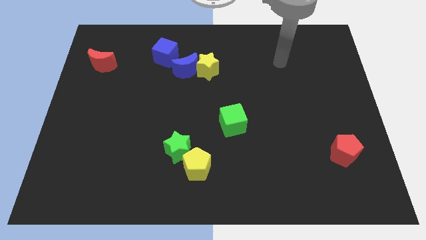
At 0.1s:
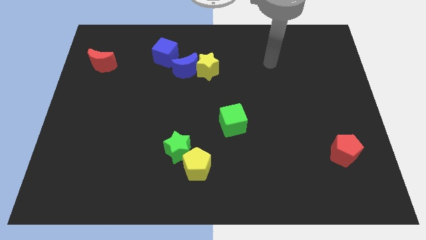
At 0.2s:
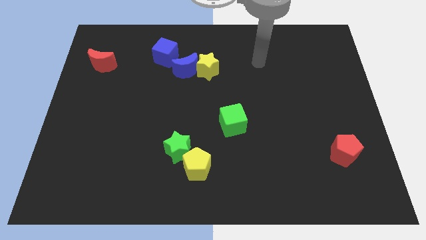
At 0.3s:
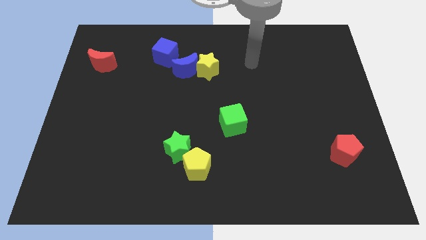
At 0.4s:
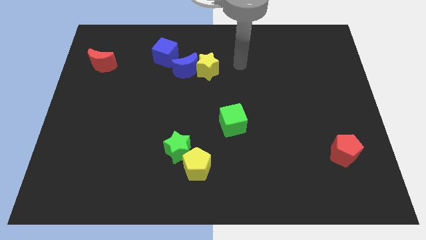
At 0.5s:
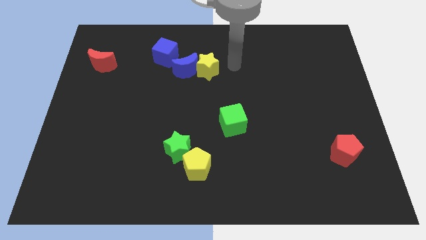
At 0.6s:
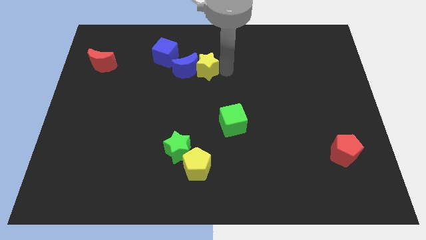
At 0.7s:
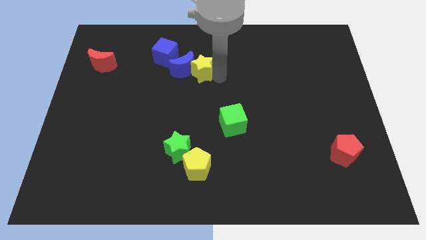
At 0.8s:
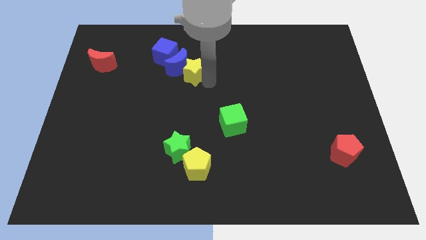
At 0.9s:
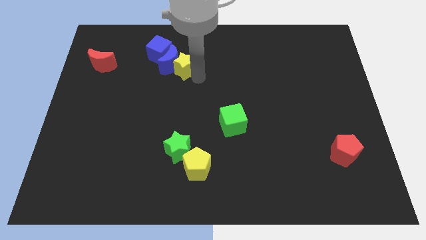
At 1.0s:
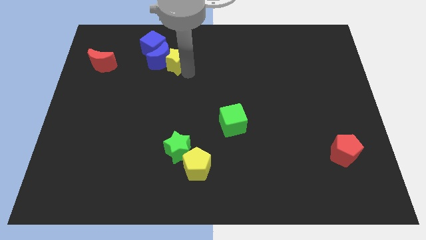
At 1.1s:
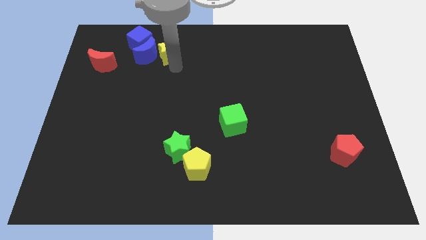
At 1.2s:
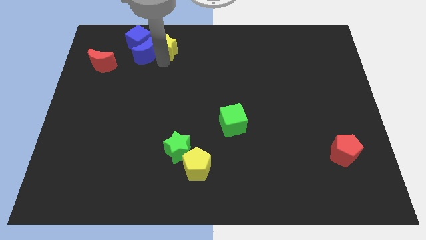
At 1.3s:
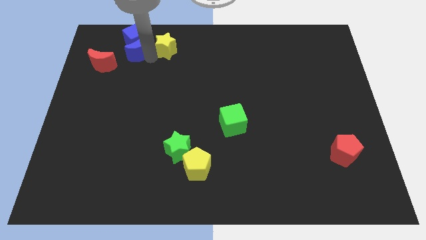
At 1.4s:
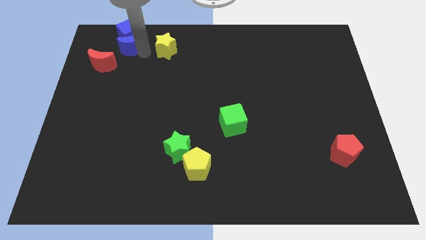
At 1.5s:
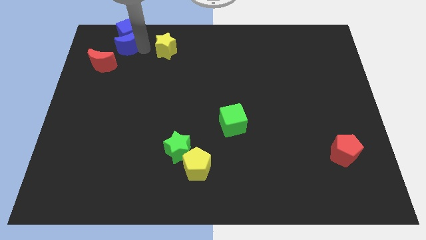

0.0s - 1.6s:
move the yellow star away from the blue moon

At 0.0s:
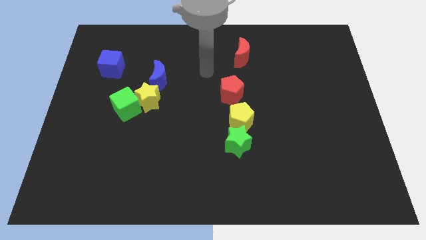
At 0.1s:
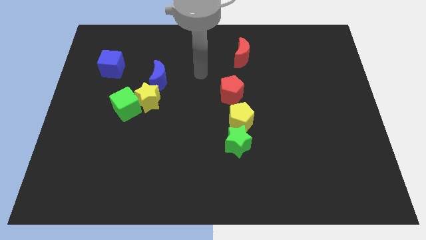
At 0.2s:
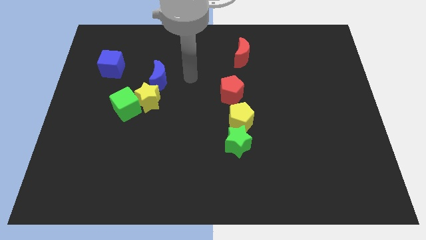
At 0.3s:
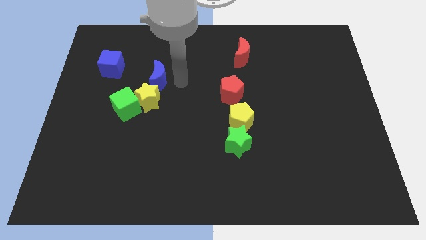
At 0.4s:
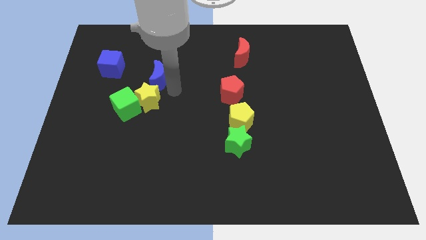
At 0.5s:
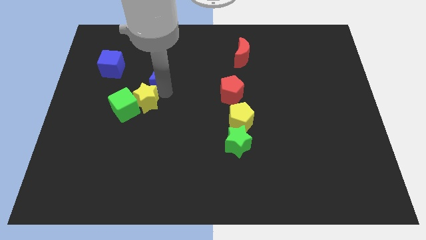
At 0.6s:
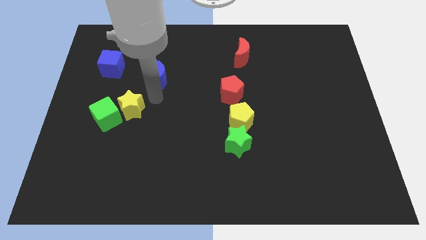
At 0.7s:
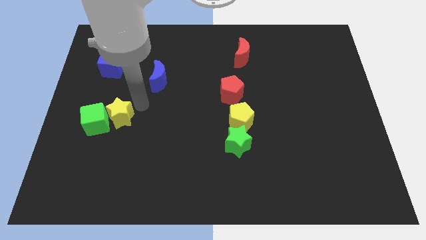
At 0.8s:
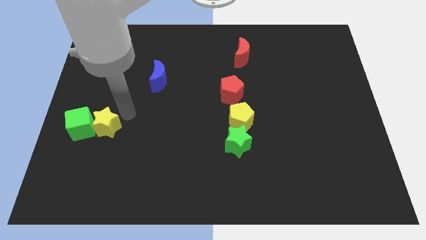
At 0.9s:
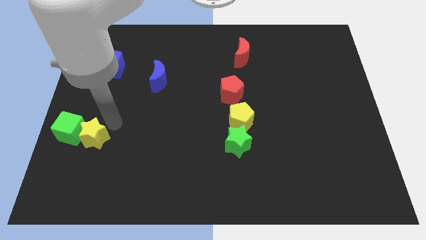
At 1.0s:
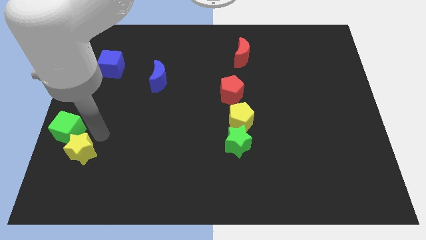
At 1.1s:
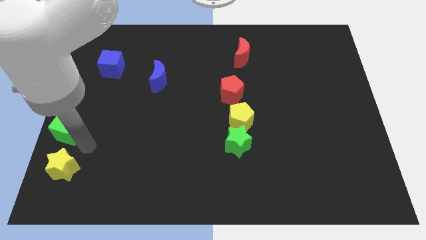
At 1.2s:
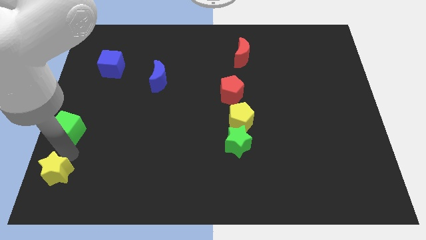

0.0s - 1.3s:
pull the green cube apart from the yellow star

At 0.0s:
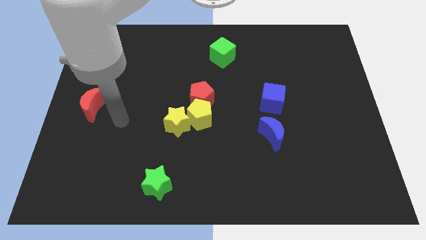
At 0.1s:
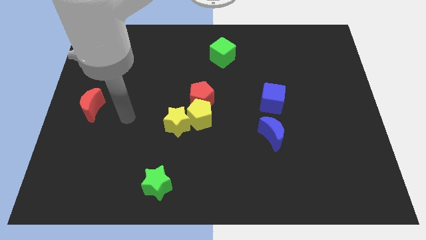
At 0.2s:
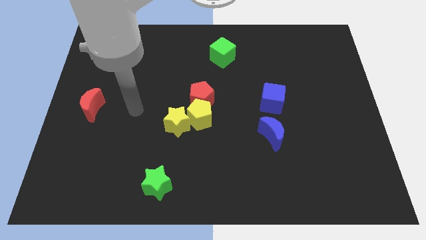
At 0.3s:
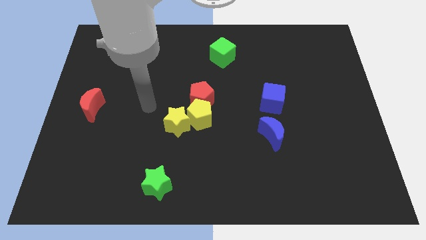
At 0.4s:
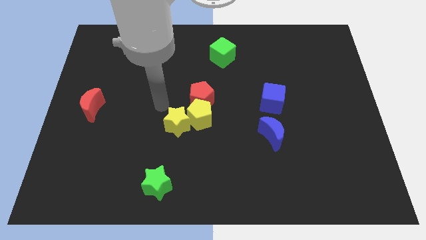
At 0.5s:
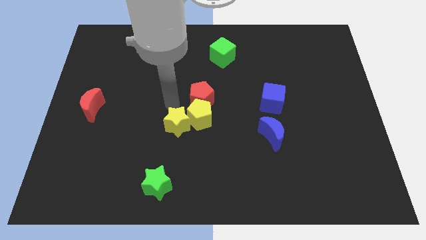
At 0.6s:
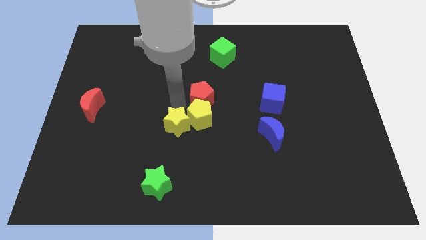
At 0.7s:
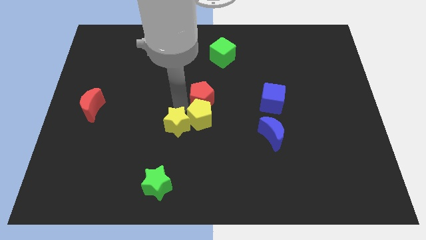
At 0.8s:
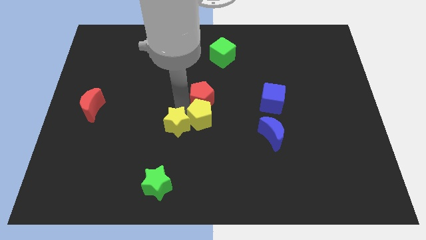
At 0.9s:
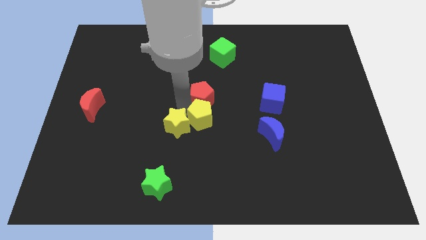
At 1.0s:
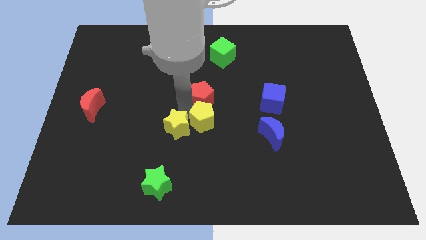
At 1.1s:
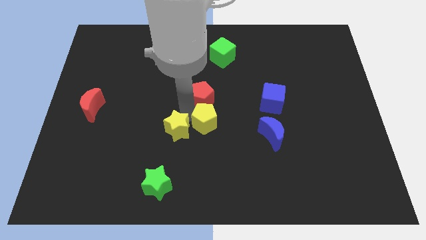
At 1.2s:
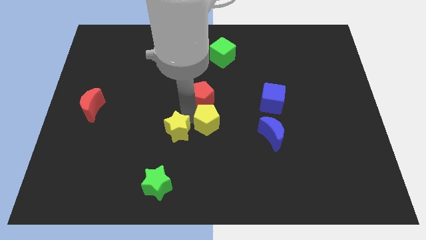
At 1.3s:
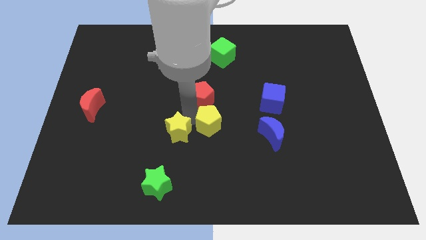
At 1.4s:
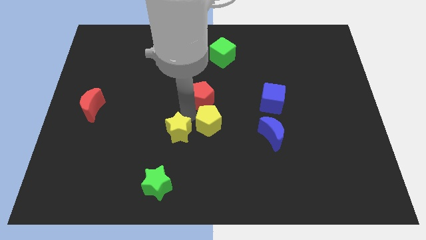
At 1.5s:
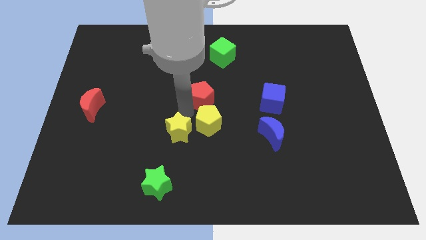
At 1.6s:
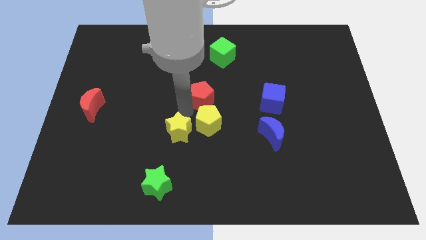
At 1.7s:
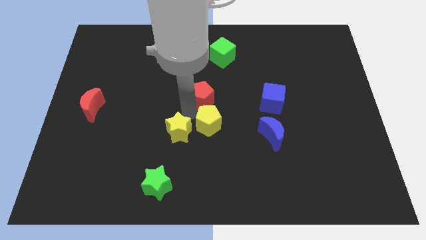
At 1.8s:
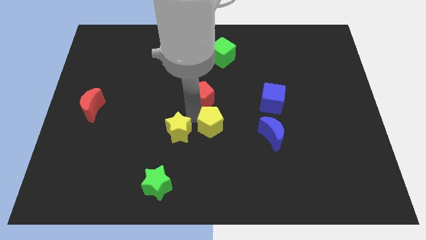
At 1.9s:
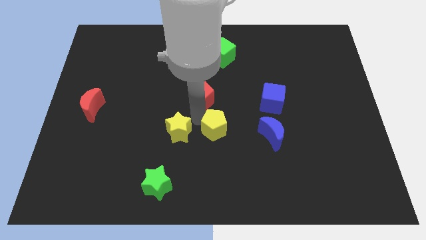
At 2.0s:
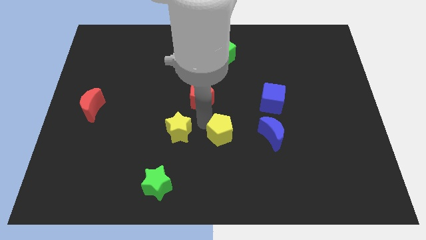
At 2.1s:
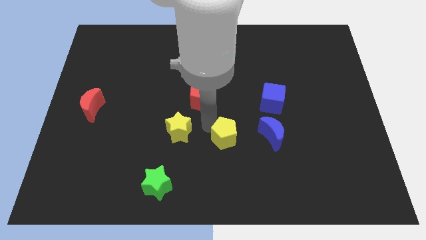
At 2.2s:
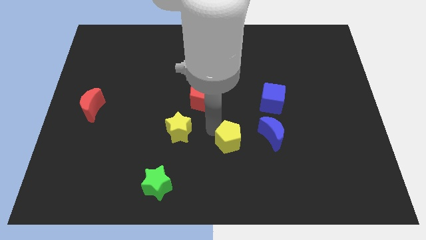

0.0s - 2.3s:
pull the yellow pentagon apart from the yellow star and red pentagon

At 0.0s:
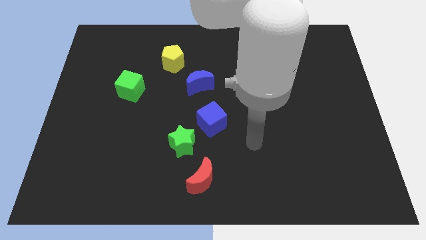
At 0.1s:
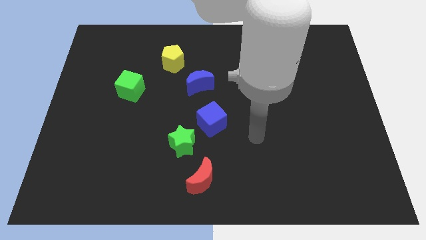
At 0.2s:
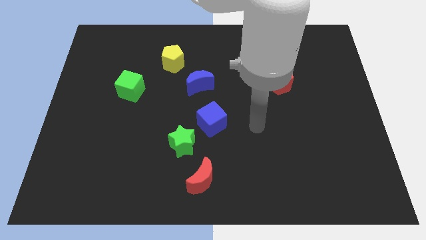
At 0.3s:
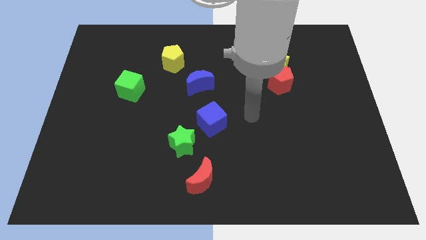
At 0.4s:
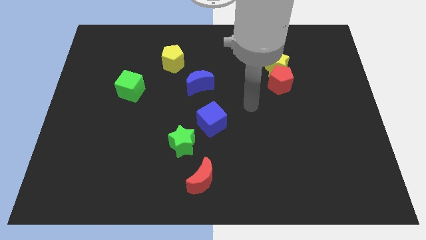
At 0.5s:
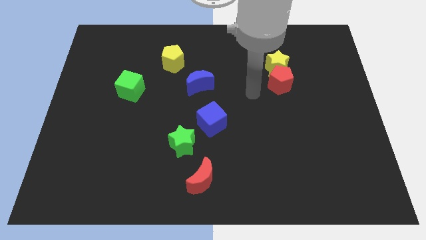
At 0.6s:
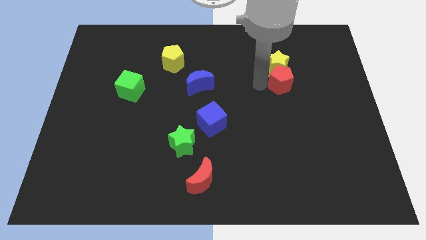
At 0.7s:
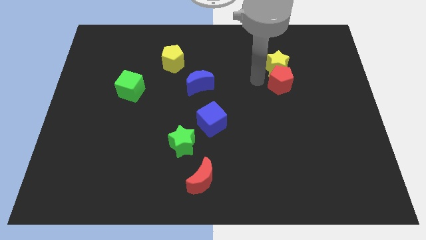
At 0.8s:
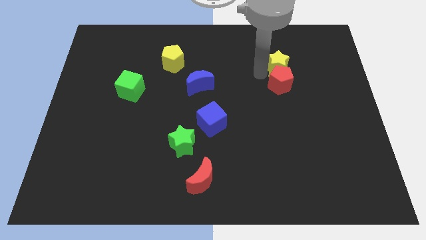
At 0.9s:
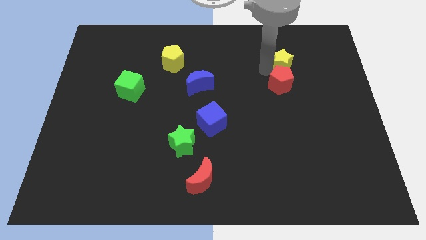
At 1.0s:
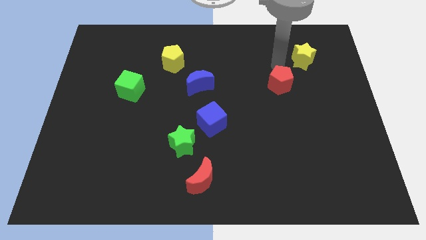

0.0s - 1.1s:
move the red pentagon away from the yellow star

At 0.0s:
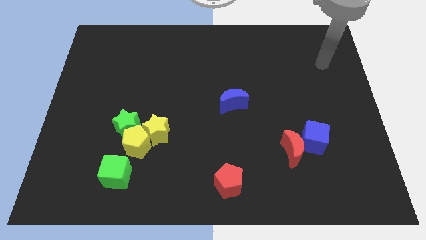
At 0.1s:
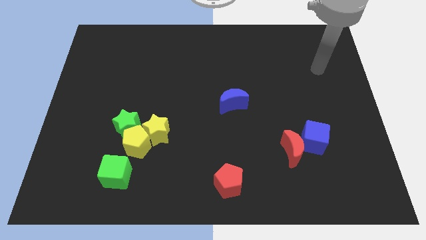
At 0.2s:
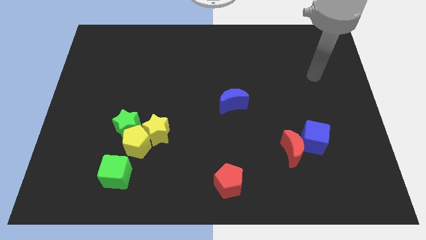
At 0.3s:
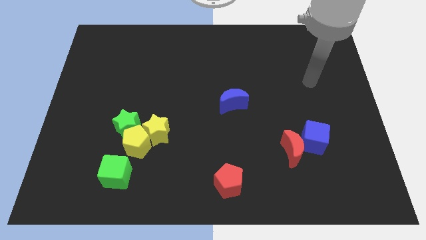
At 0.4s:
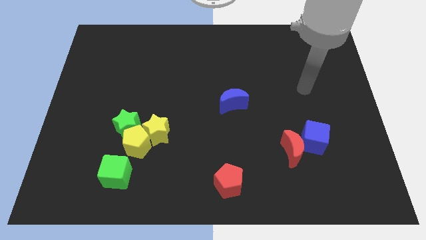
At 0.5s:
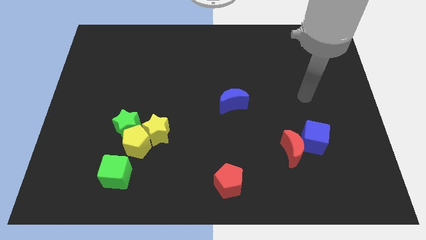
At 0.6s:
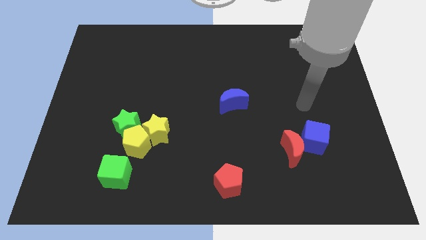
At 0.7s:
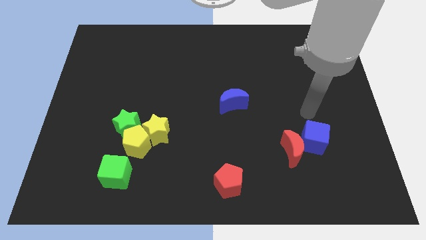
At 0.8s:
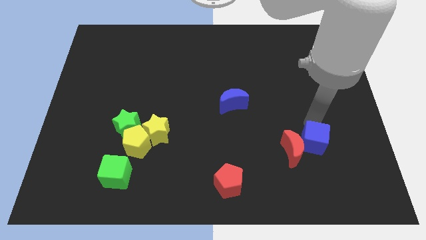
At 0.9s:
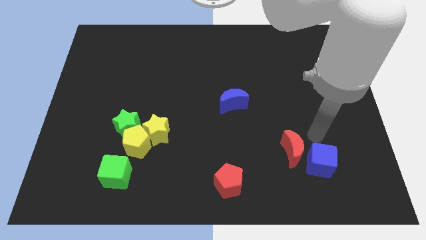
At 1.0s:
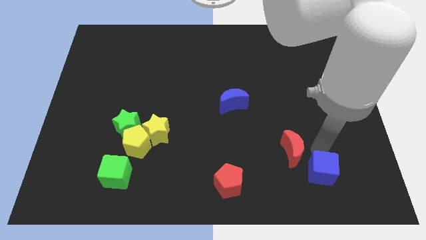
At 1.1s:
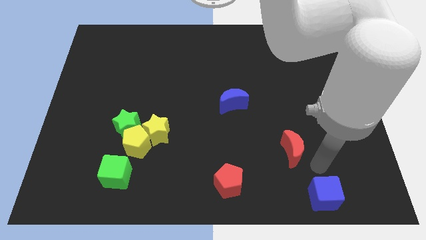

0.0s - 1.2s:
pull the red moon apart from the blue cube

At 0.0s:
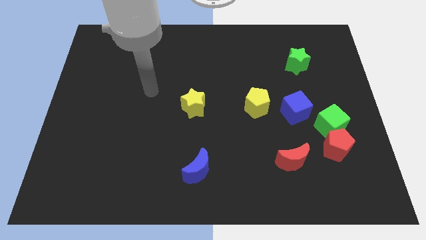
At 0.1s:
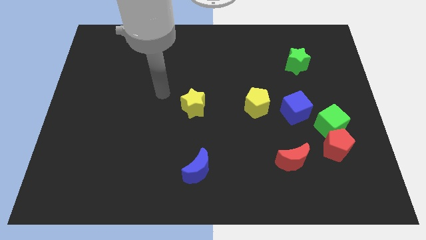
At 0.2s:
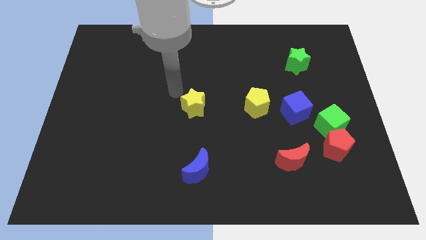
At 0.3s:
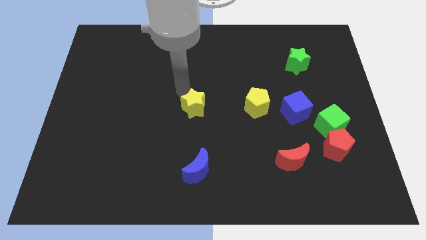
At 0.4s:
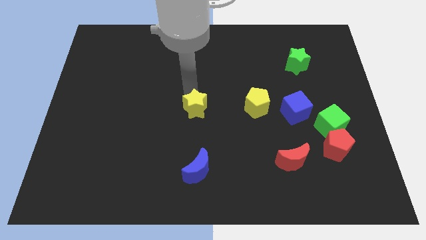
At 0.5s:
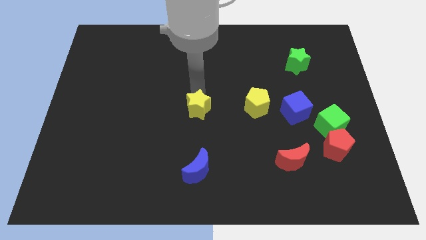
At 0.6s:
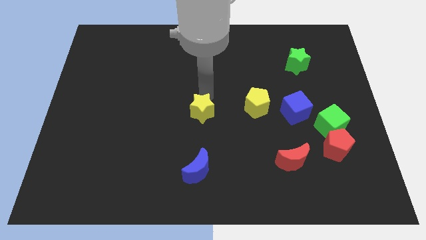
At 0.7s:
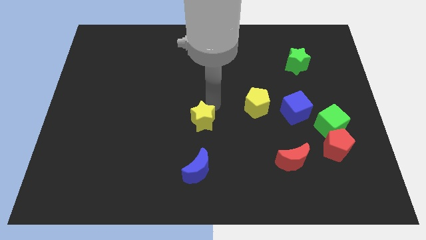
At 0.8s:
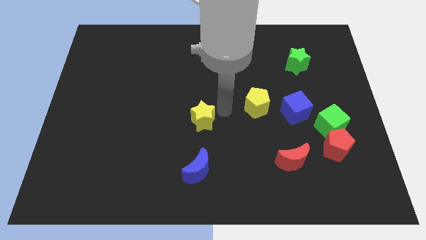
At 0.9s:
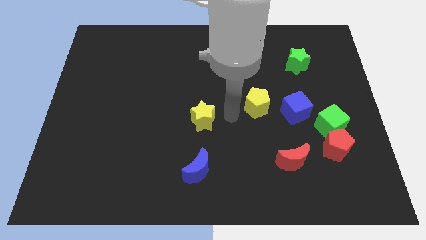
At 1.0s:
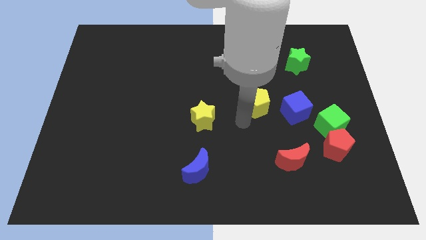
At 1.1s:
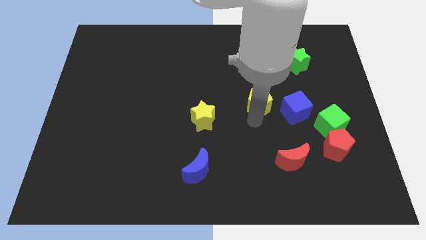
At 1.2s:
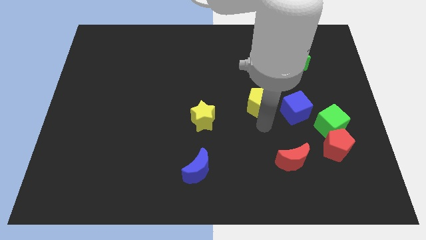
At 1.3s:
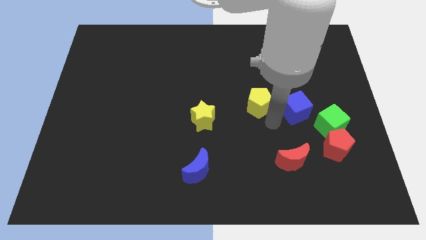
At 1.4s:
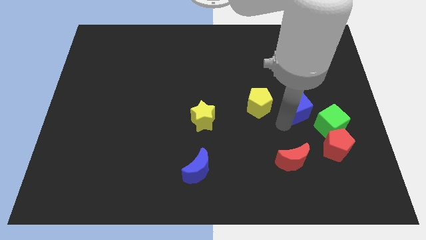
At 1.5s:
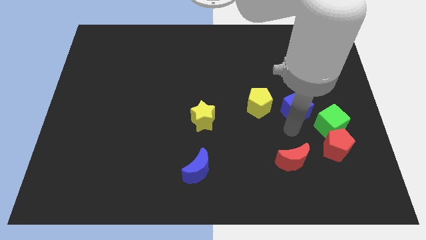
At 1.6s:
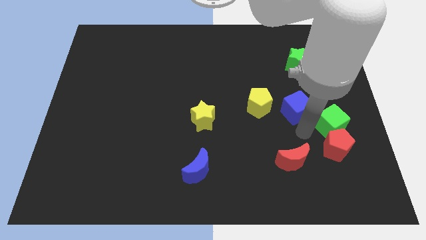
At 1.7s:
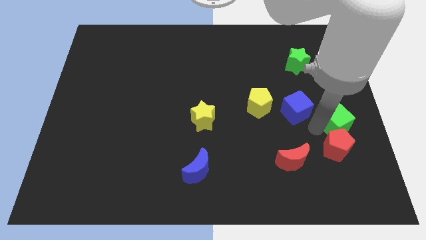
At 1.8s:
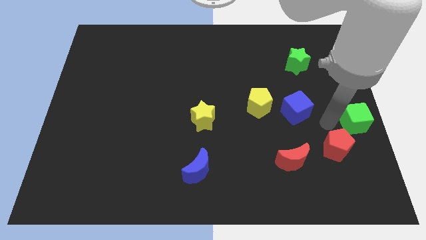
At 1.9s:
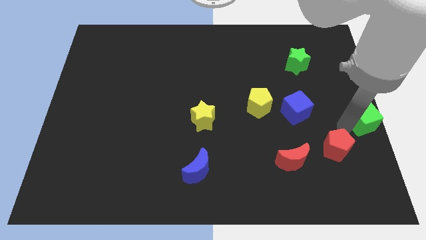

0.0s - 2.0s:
separate the red pentagon from the green cube
